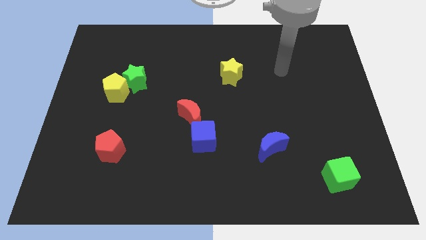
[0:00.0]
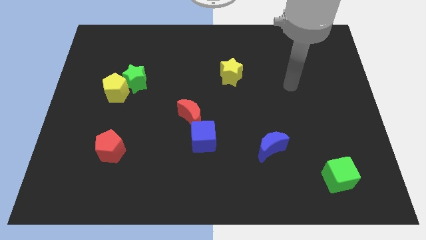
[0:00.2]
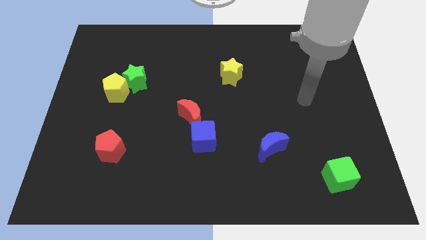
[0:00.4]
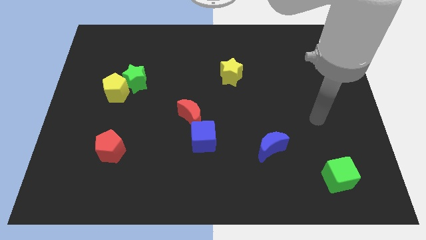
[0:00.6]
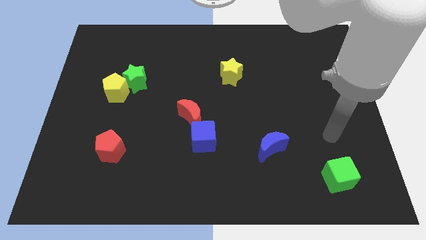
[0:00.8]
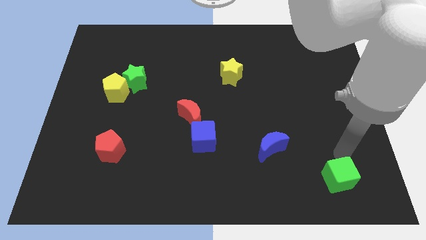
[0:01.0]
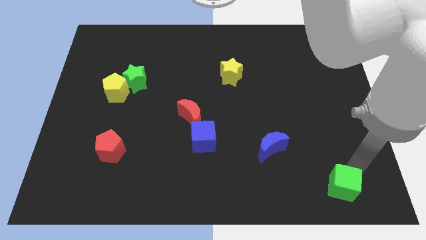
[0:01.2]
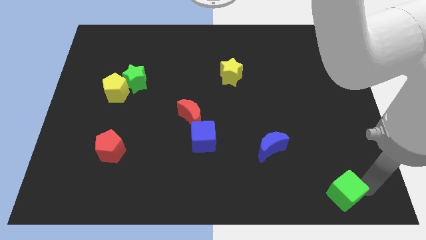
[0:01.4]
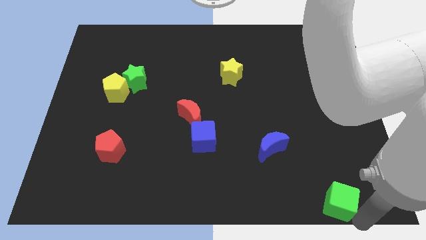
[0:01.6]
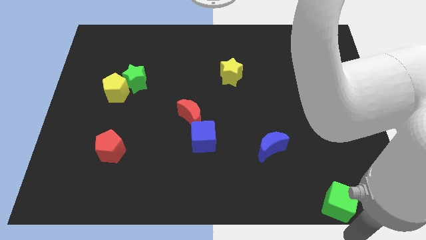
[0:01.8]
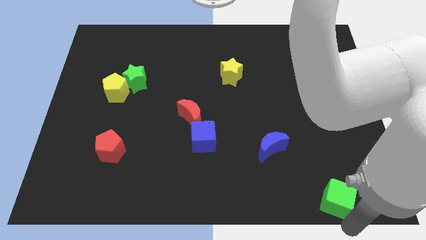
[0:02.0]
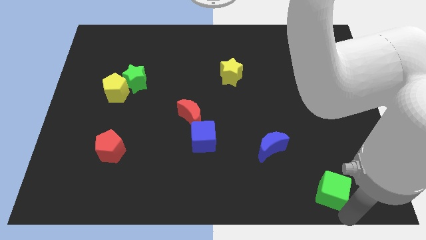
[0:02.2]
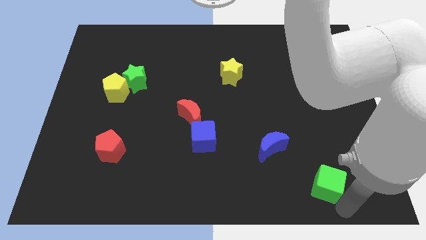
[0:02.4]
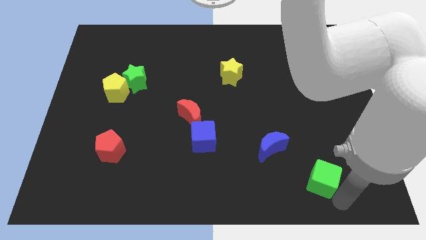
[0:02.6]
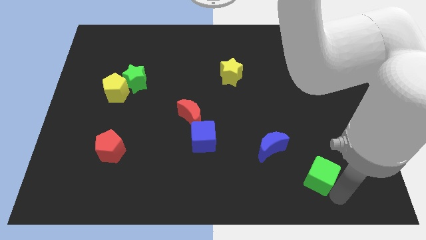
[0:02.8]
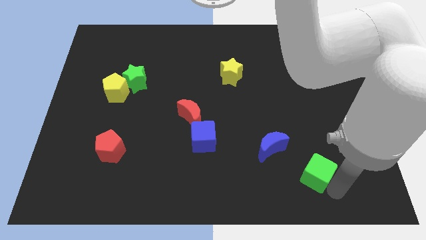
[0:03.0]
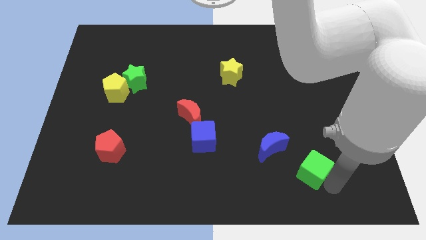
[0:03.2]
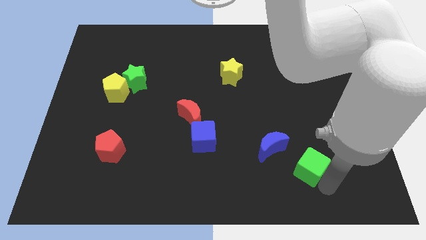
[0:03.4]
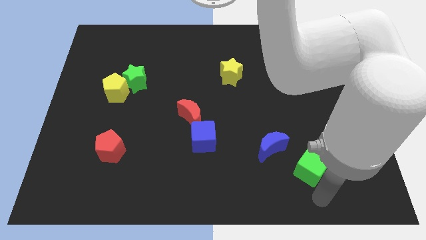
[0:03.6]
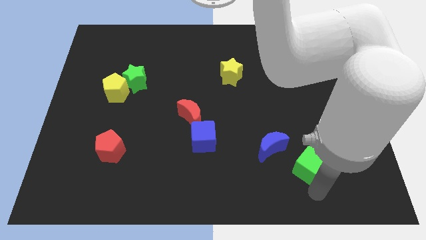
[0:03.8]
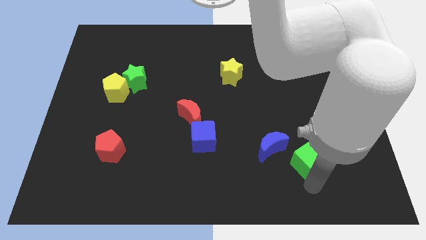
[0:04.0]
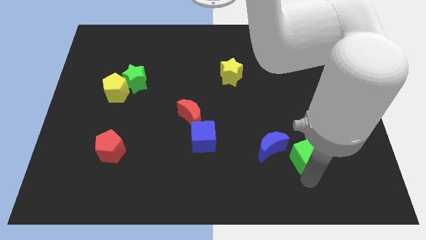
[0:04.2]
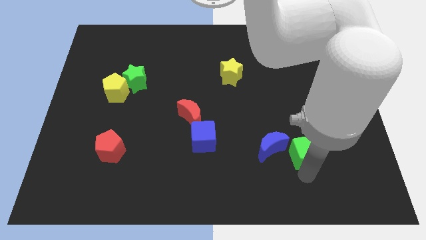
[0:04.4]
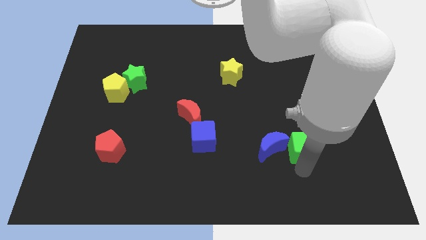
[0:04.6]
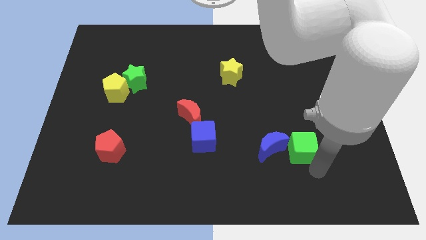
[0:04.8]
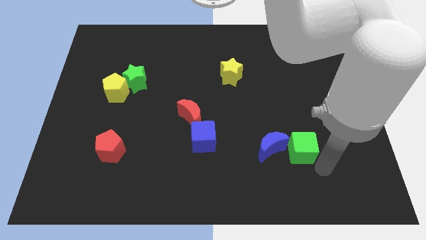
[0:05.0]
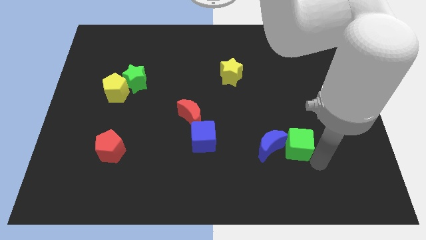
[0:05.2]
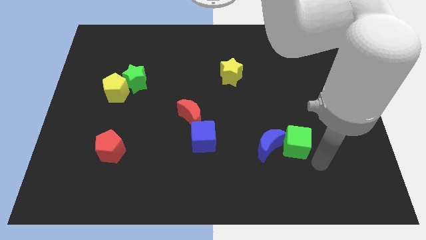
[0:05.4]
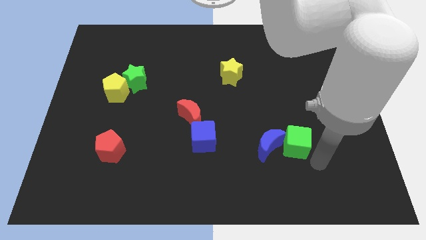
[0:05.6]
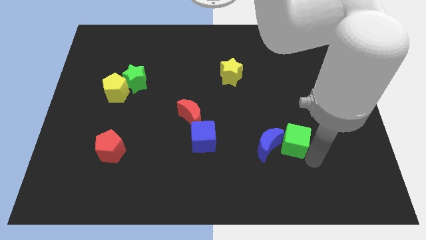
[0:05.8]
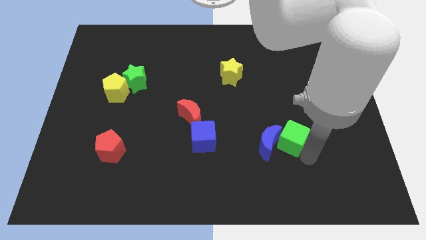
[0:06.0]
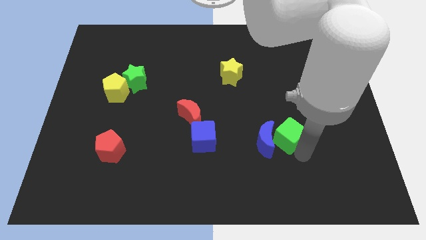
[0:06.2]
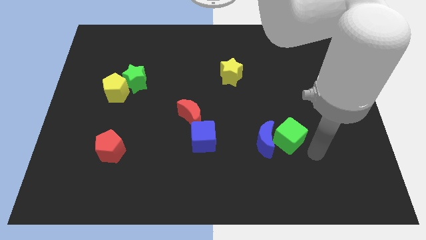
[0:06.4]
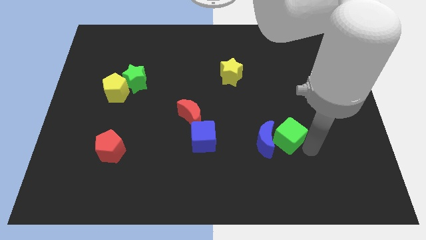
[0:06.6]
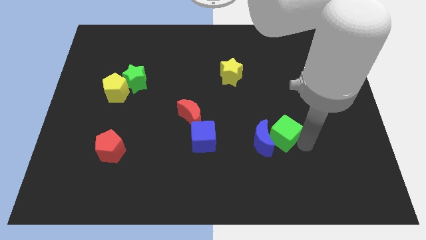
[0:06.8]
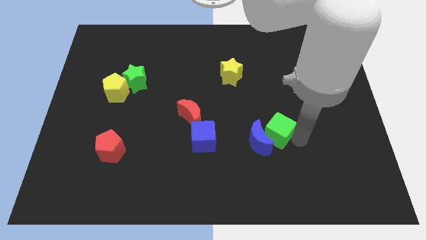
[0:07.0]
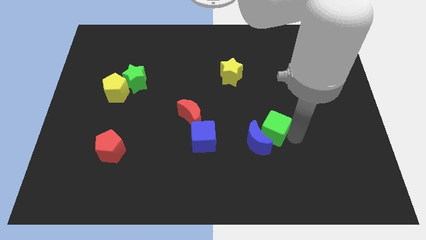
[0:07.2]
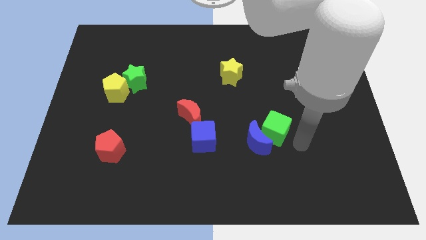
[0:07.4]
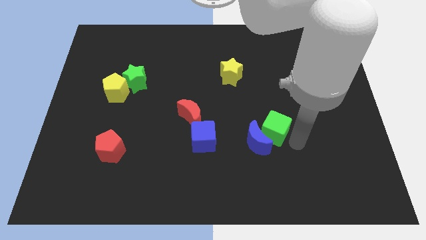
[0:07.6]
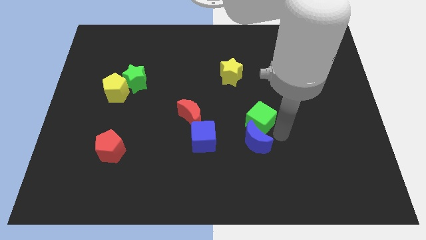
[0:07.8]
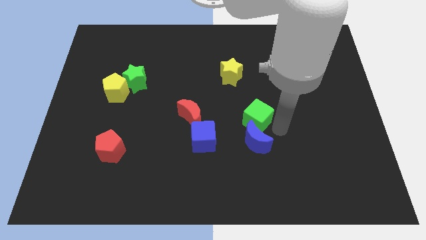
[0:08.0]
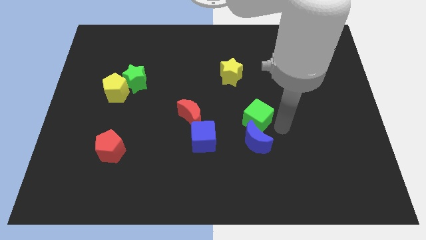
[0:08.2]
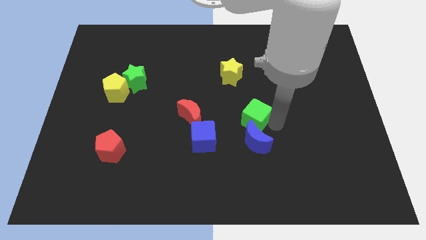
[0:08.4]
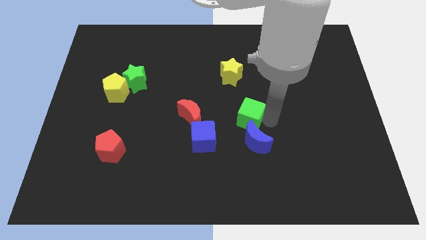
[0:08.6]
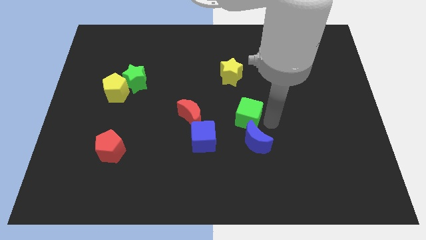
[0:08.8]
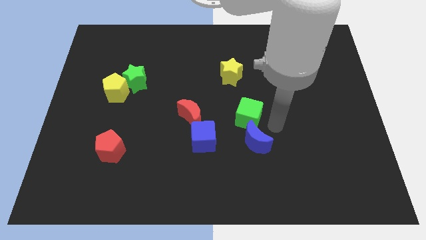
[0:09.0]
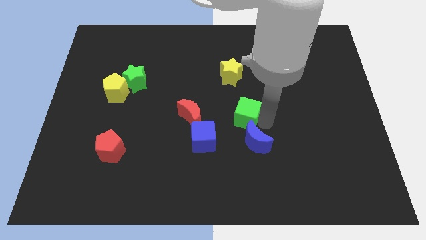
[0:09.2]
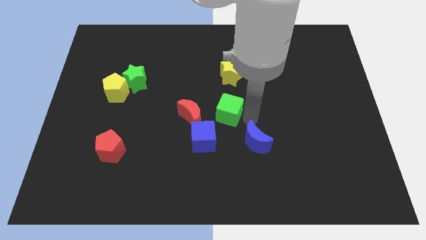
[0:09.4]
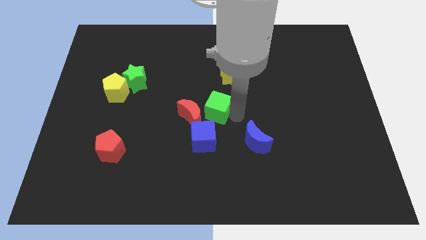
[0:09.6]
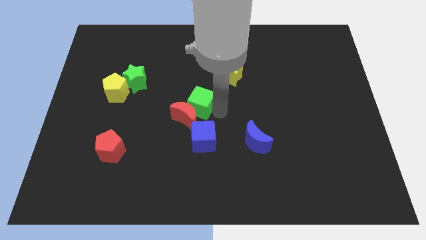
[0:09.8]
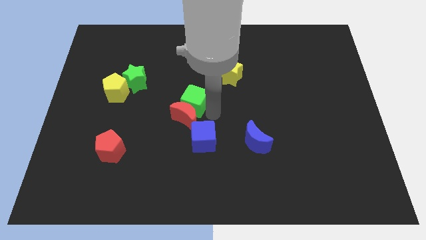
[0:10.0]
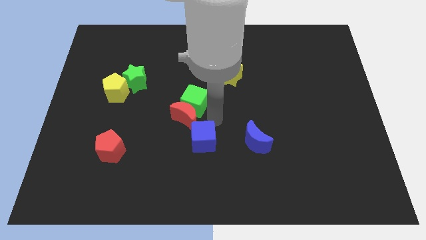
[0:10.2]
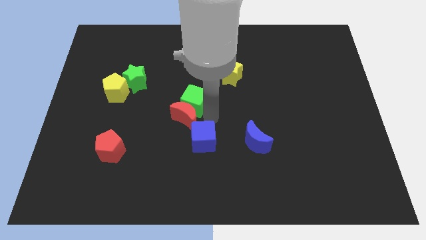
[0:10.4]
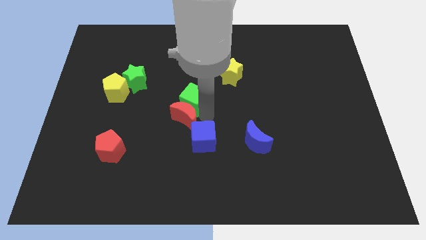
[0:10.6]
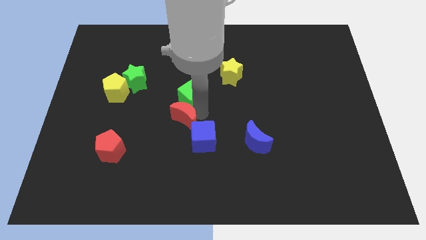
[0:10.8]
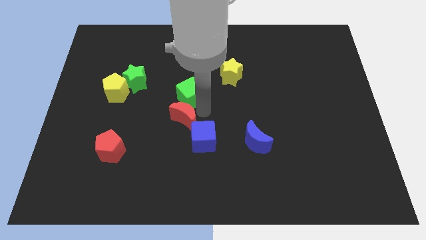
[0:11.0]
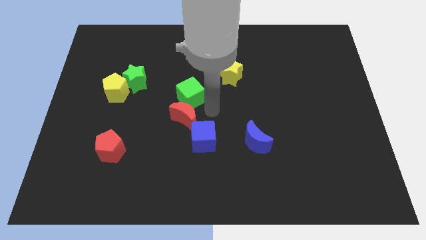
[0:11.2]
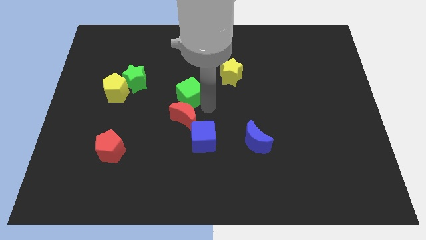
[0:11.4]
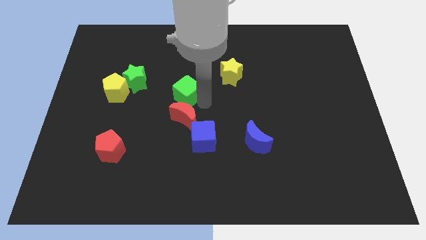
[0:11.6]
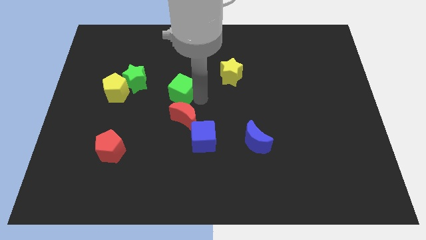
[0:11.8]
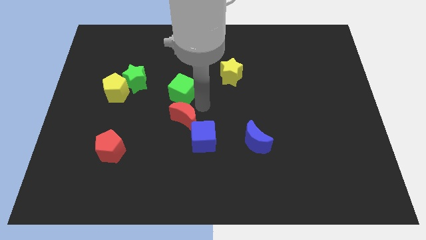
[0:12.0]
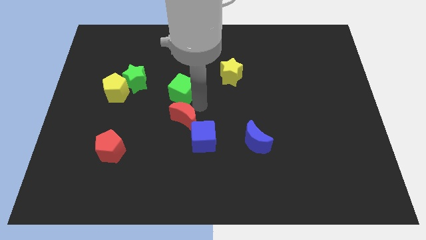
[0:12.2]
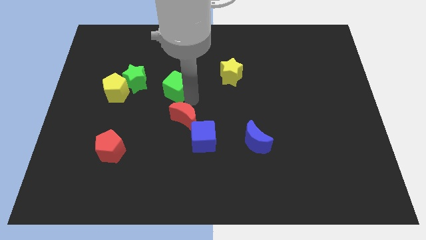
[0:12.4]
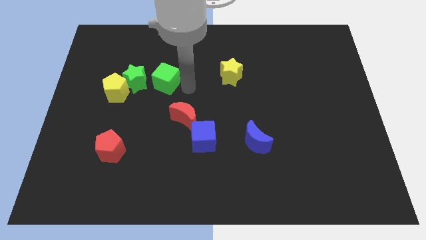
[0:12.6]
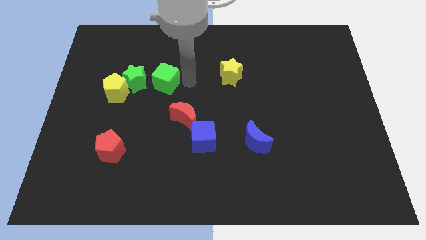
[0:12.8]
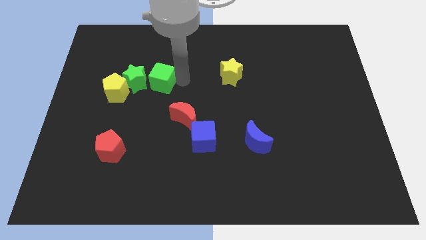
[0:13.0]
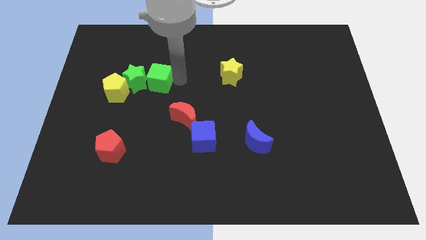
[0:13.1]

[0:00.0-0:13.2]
push the green cube next to the green star

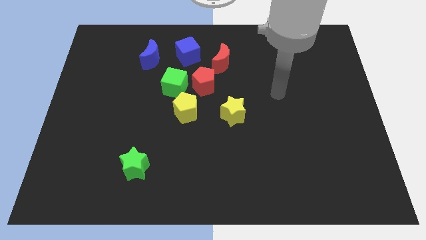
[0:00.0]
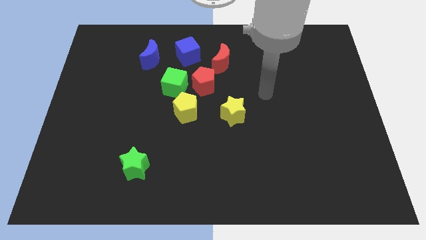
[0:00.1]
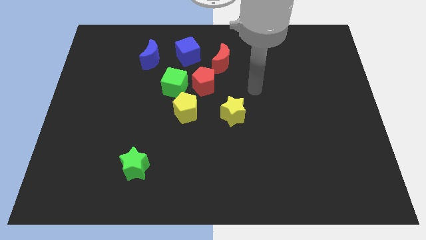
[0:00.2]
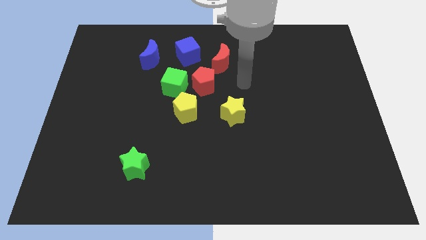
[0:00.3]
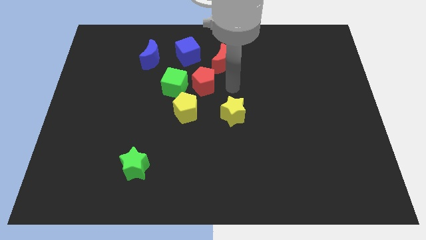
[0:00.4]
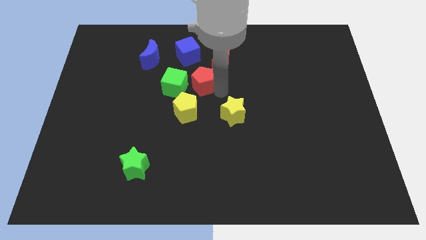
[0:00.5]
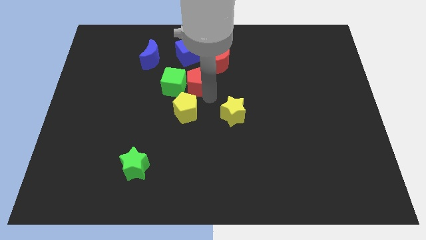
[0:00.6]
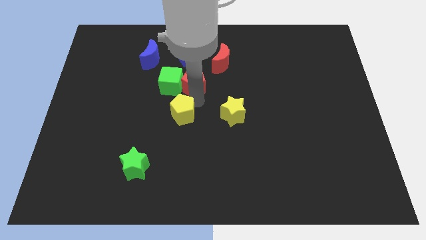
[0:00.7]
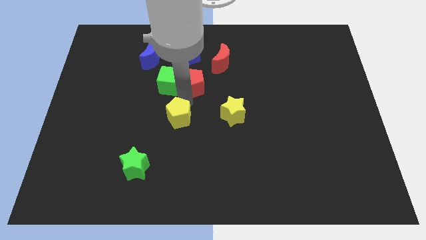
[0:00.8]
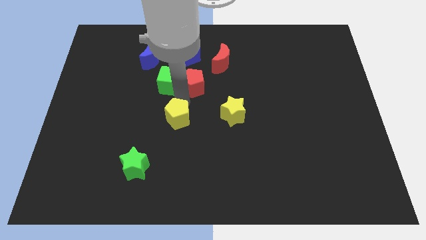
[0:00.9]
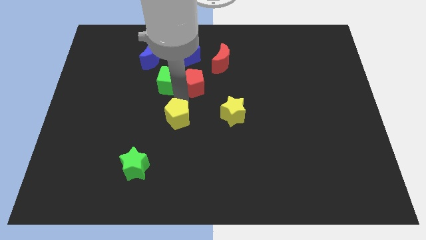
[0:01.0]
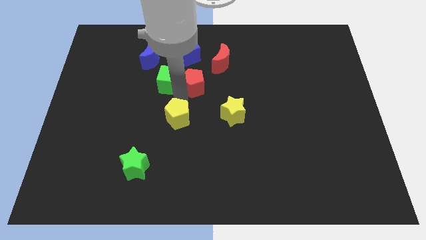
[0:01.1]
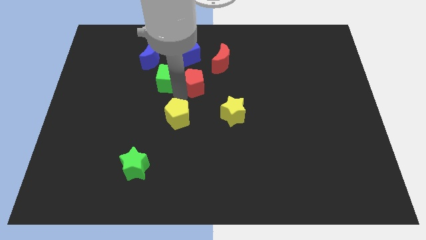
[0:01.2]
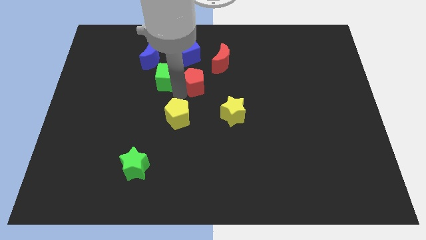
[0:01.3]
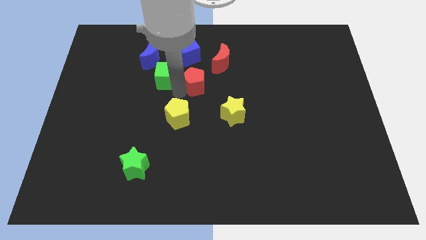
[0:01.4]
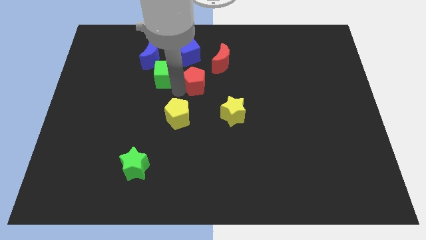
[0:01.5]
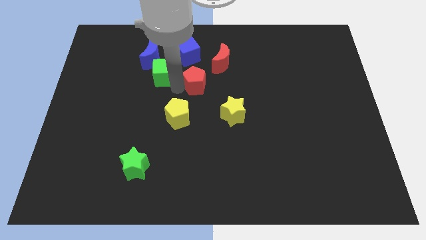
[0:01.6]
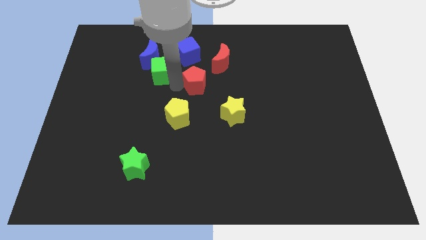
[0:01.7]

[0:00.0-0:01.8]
push the green cube to the blue moon

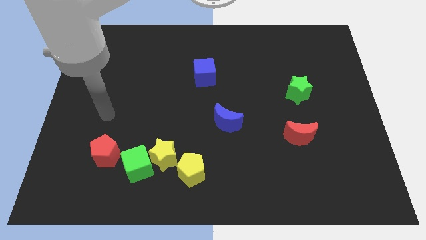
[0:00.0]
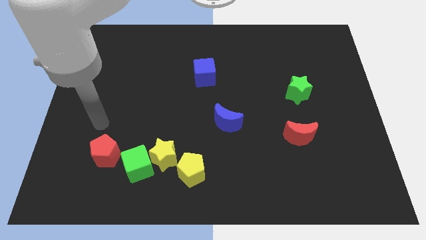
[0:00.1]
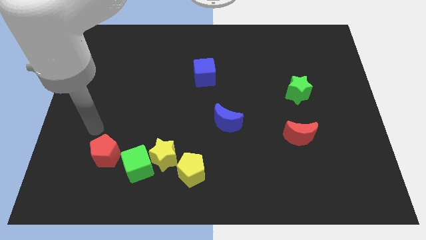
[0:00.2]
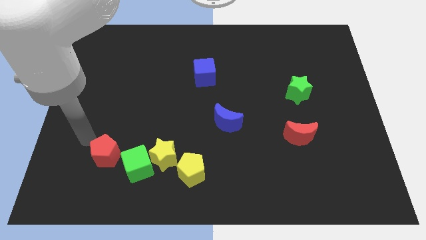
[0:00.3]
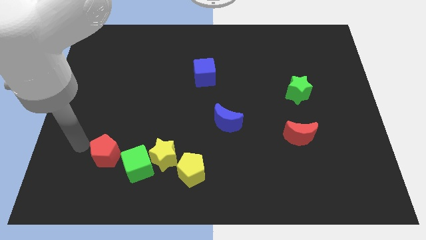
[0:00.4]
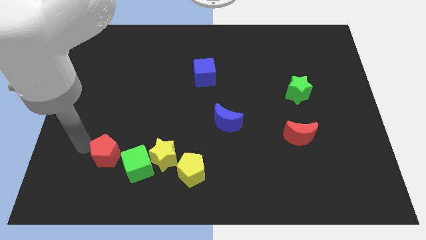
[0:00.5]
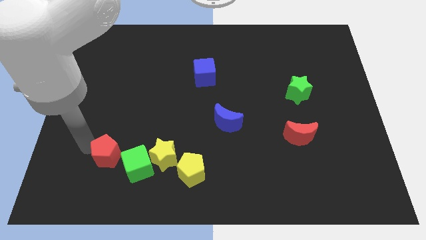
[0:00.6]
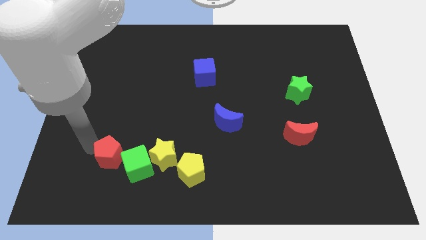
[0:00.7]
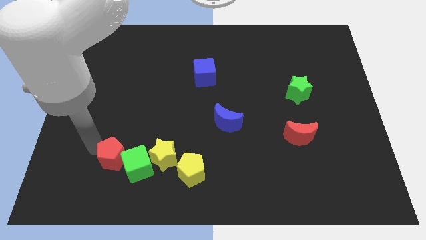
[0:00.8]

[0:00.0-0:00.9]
put the red pentagon towards the green cube
